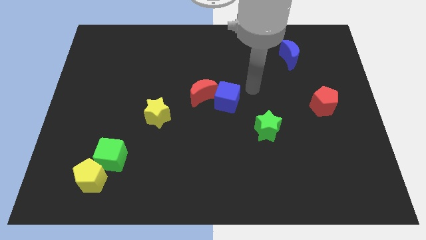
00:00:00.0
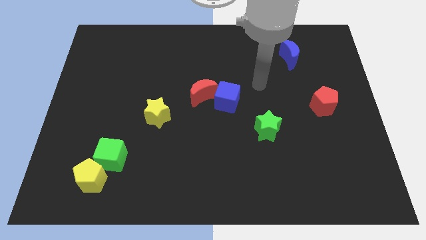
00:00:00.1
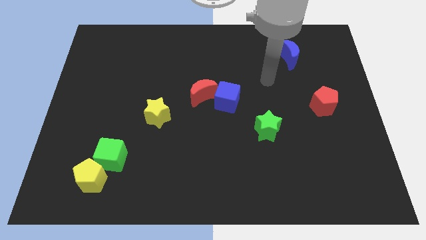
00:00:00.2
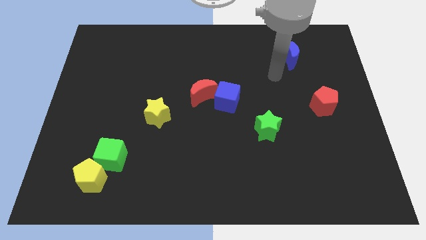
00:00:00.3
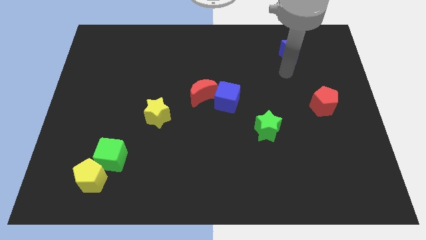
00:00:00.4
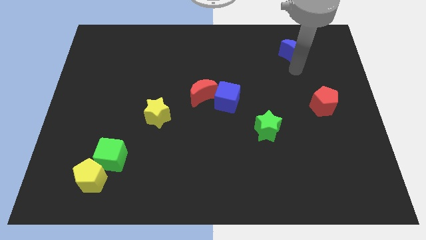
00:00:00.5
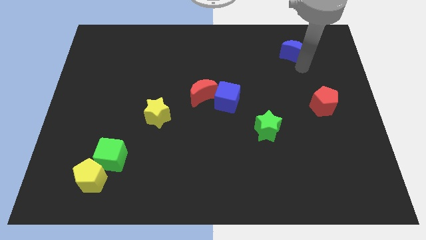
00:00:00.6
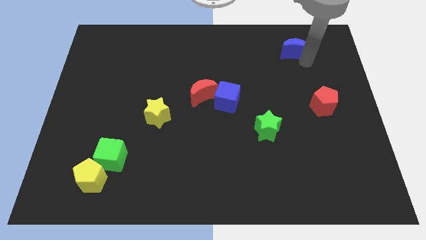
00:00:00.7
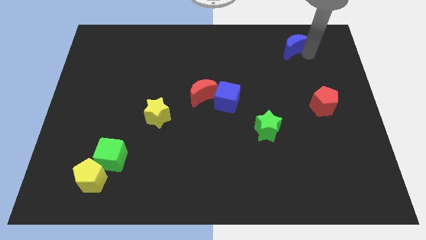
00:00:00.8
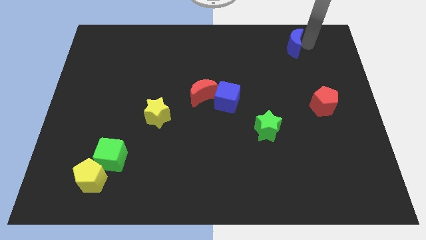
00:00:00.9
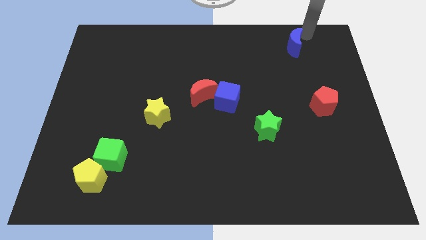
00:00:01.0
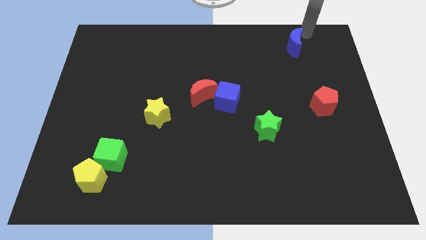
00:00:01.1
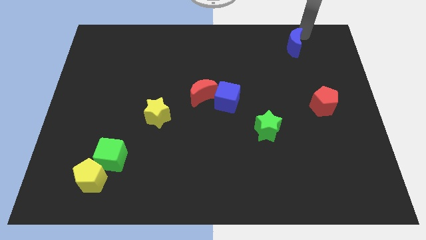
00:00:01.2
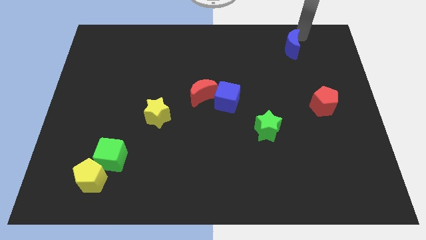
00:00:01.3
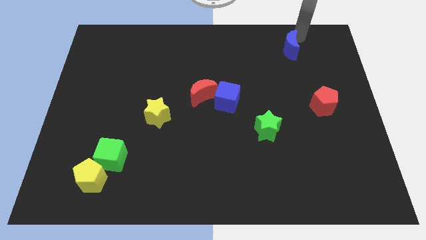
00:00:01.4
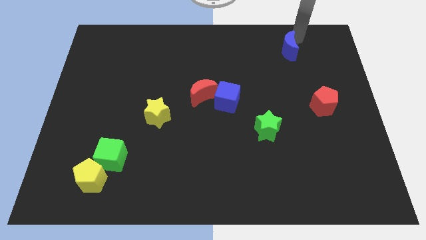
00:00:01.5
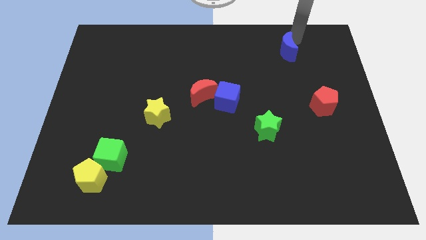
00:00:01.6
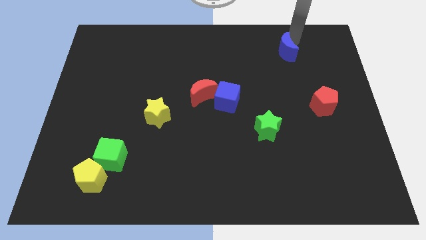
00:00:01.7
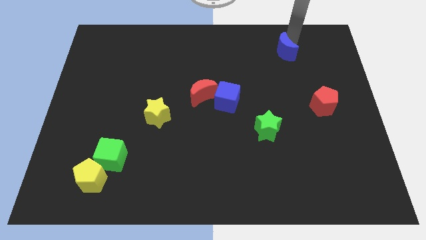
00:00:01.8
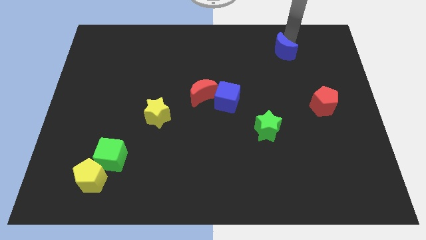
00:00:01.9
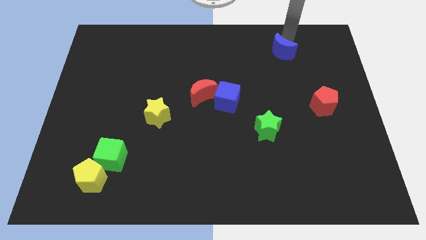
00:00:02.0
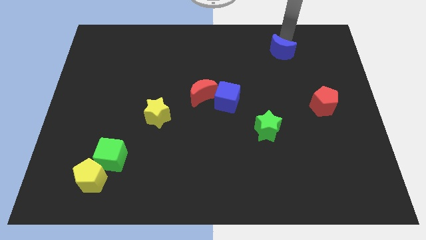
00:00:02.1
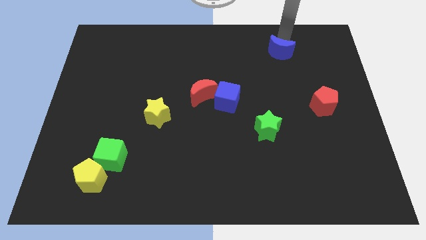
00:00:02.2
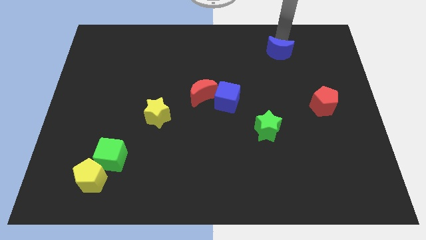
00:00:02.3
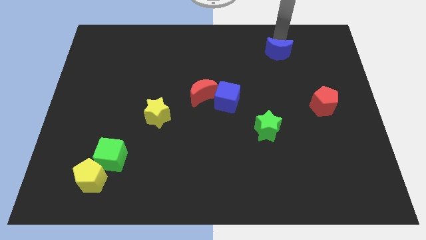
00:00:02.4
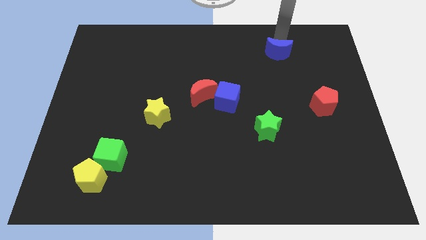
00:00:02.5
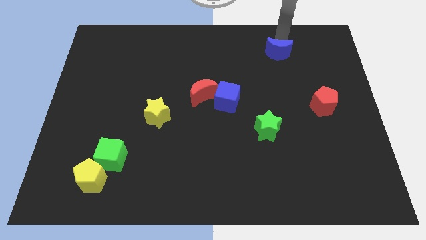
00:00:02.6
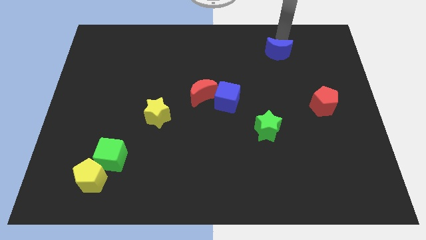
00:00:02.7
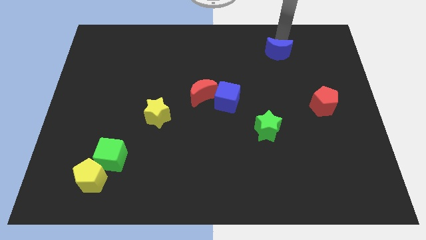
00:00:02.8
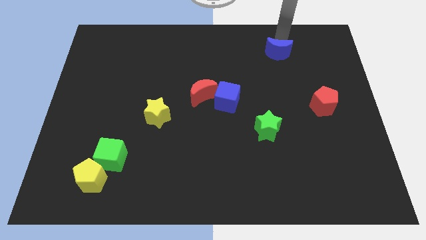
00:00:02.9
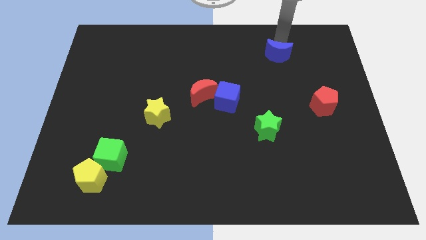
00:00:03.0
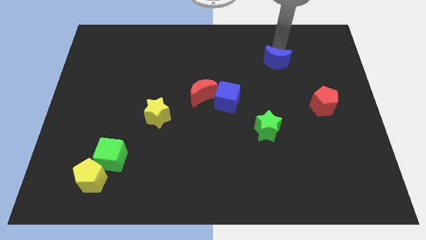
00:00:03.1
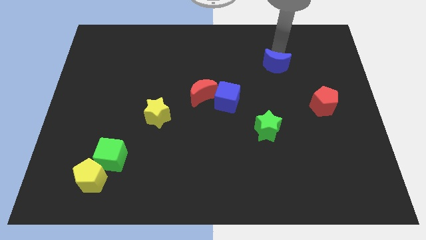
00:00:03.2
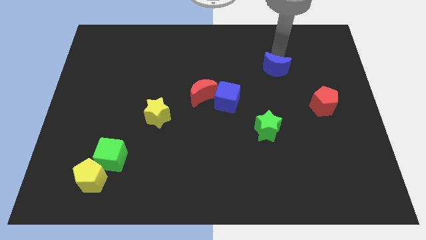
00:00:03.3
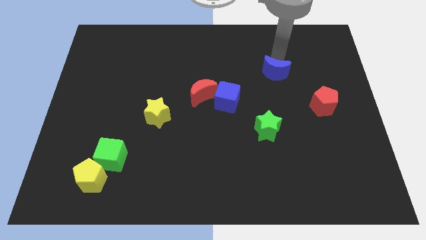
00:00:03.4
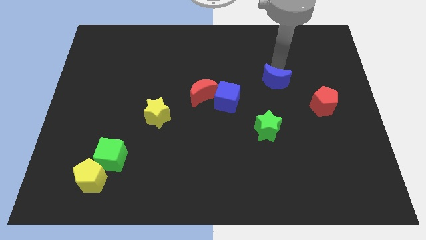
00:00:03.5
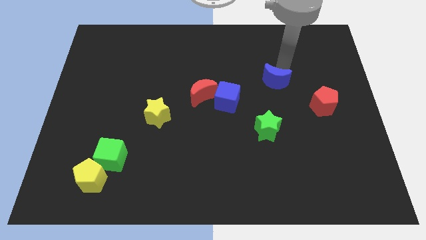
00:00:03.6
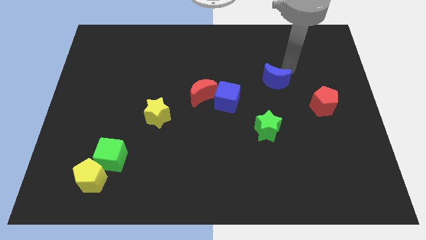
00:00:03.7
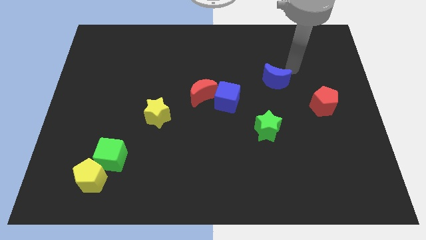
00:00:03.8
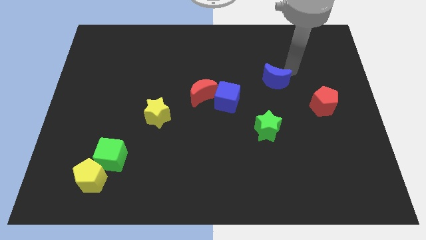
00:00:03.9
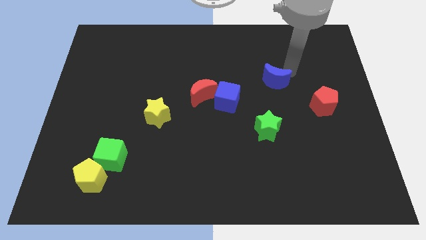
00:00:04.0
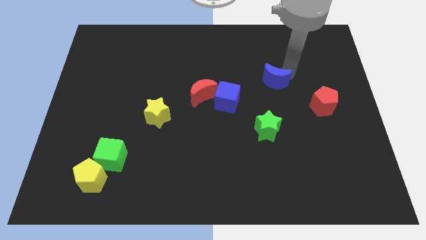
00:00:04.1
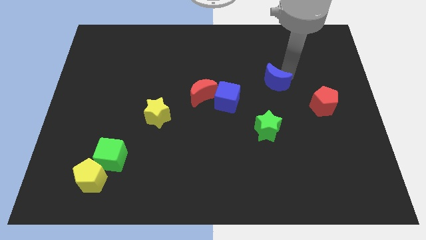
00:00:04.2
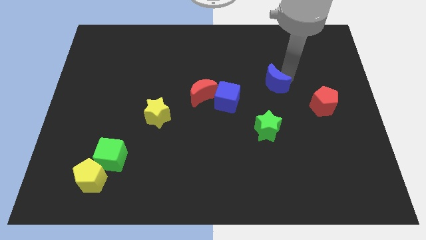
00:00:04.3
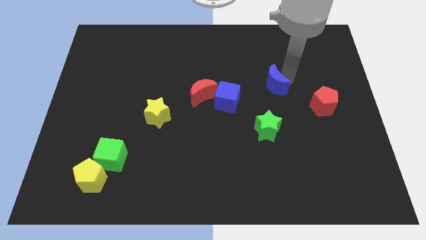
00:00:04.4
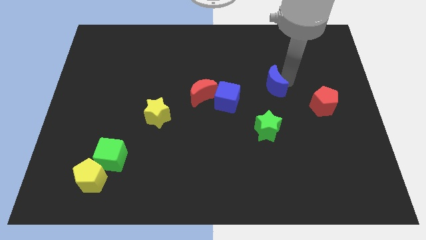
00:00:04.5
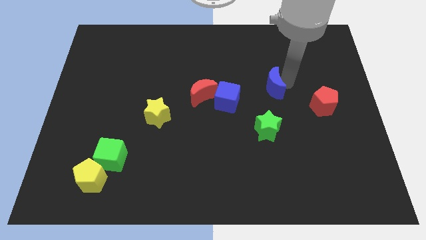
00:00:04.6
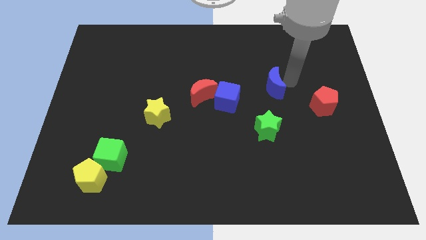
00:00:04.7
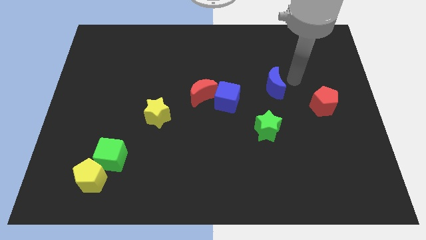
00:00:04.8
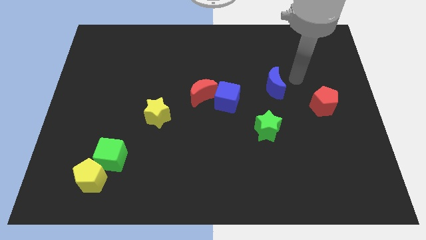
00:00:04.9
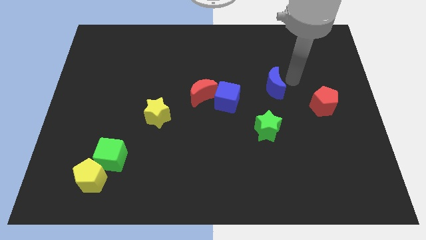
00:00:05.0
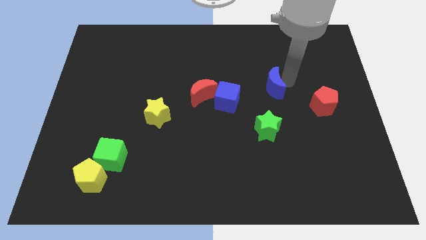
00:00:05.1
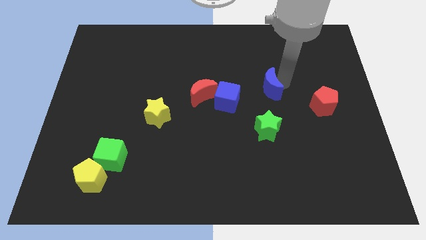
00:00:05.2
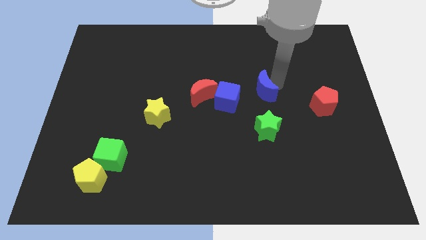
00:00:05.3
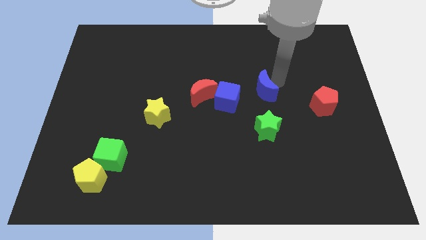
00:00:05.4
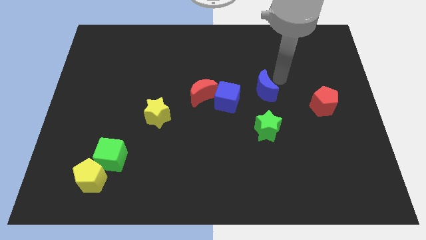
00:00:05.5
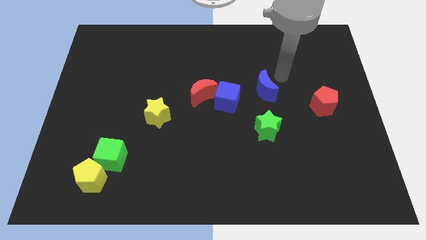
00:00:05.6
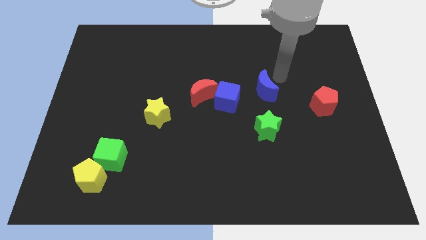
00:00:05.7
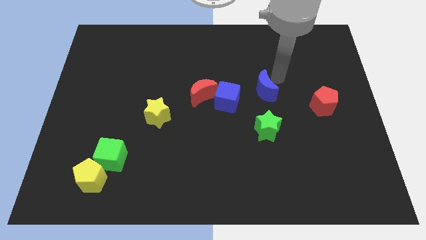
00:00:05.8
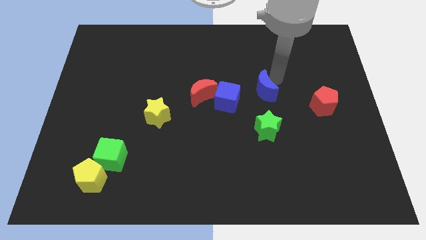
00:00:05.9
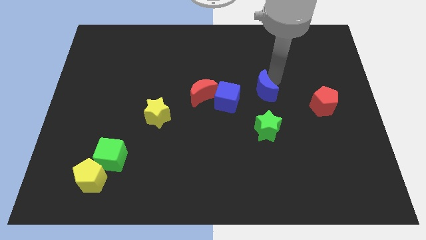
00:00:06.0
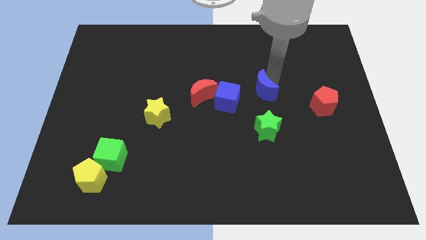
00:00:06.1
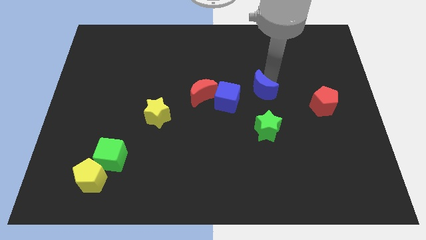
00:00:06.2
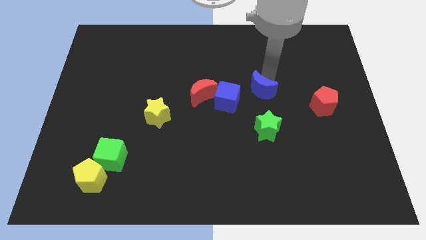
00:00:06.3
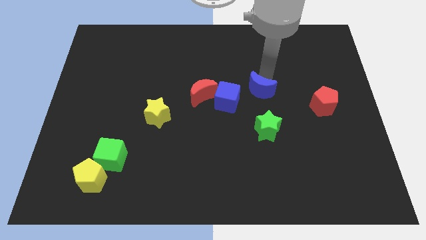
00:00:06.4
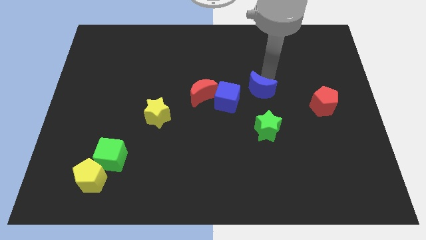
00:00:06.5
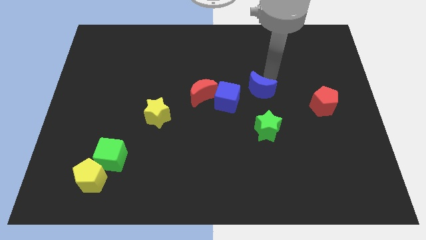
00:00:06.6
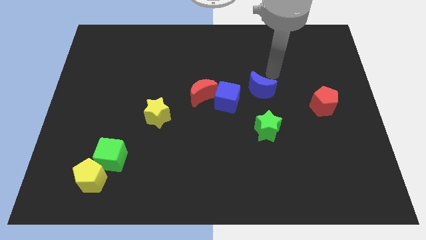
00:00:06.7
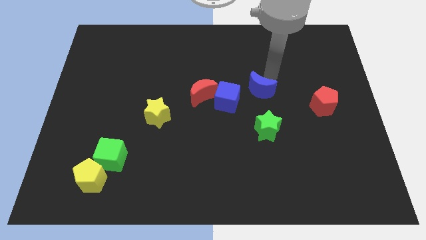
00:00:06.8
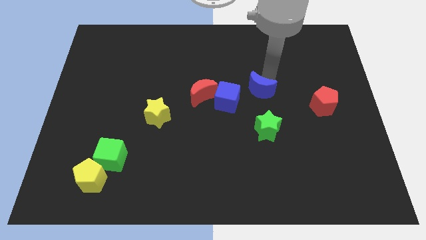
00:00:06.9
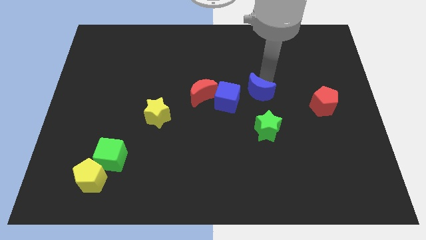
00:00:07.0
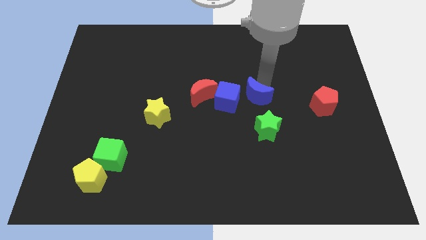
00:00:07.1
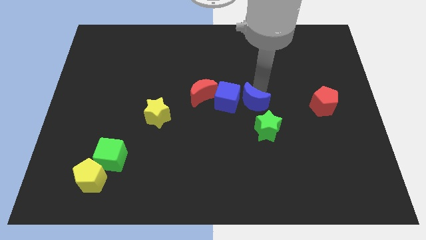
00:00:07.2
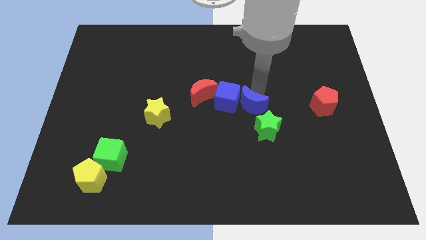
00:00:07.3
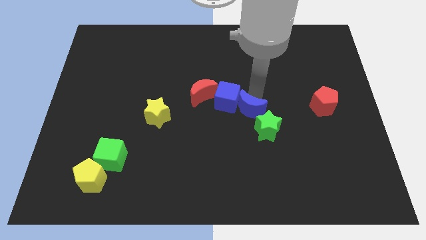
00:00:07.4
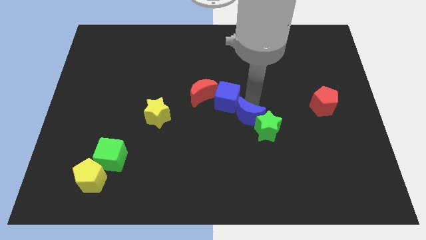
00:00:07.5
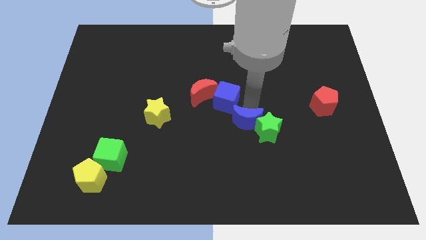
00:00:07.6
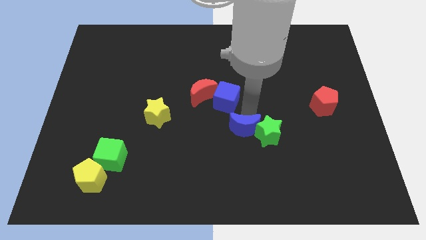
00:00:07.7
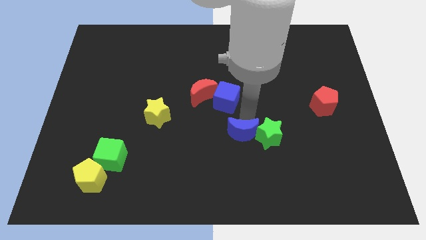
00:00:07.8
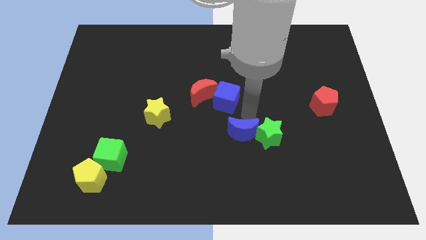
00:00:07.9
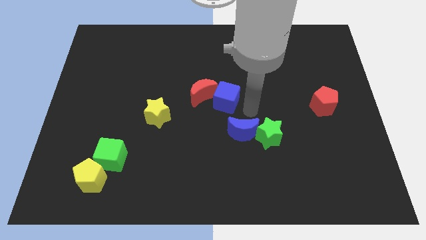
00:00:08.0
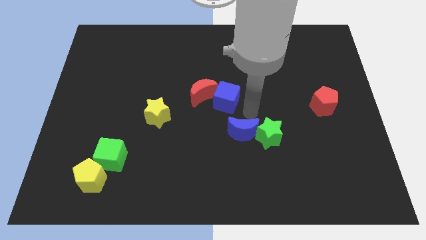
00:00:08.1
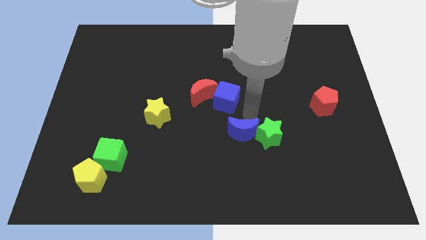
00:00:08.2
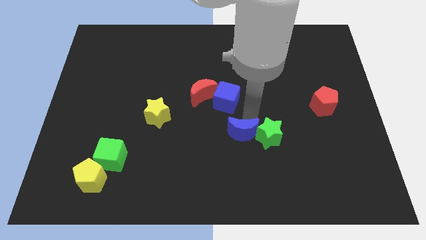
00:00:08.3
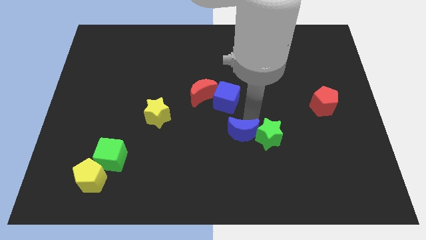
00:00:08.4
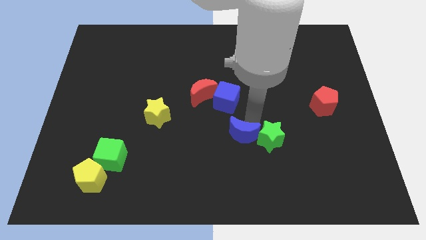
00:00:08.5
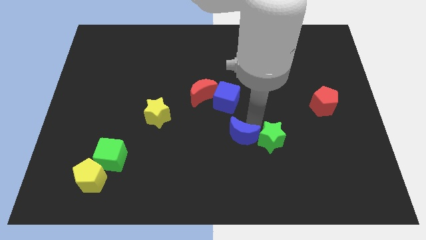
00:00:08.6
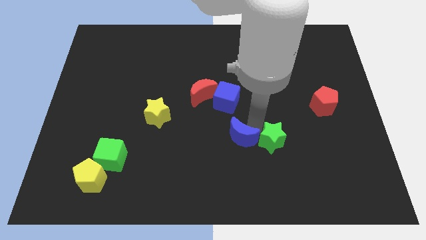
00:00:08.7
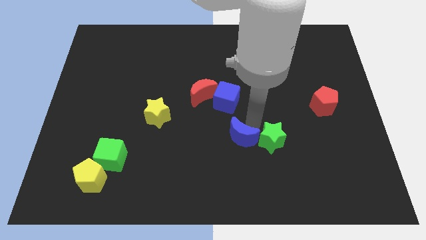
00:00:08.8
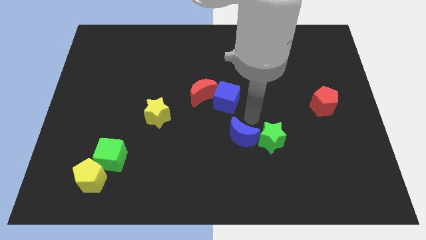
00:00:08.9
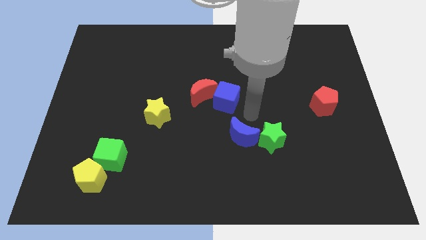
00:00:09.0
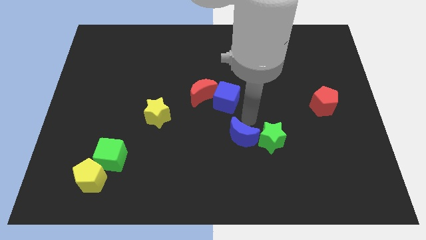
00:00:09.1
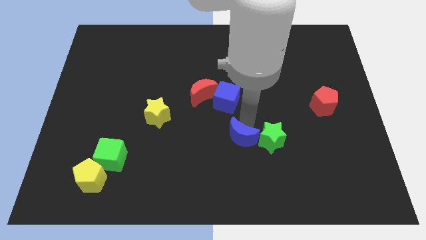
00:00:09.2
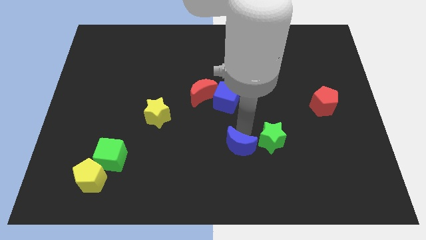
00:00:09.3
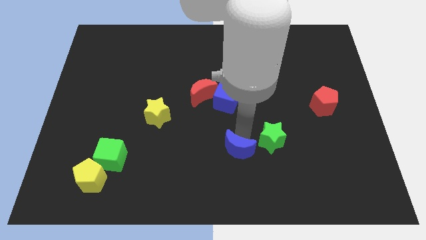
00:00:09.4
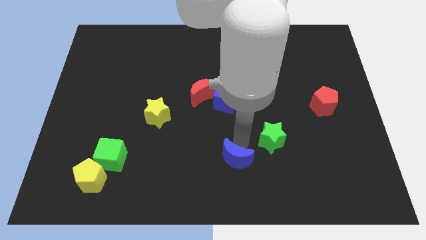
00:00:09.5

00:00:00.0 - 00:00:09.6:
push the blue moon to the bottom side
